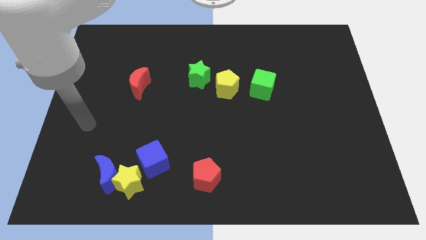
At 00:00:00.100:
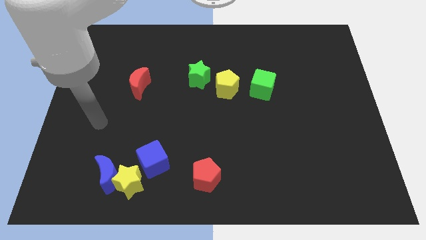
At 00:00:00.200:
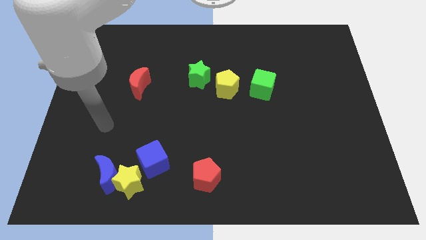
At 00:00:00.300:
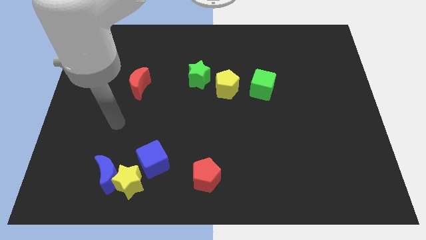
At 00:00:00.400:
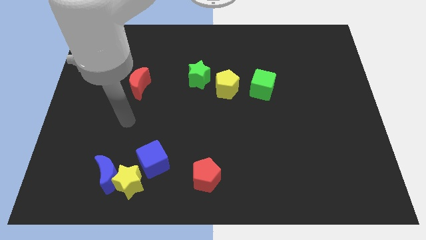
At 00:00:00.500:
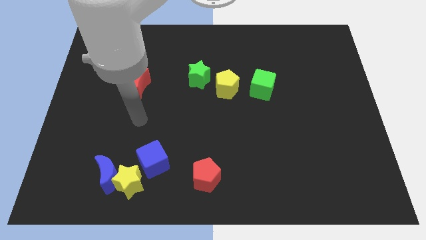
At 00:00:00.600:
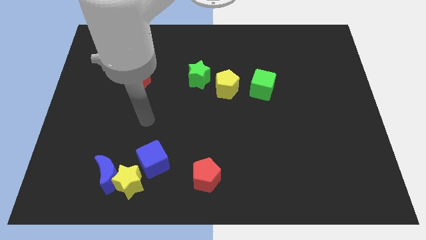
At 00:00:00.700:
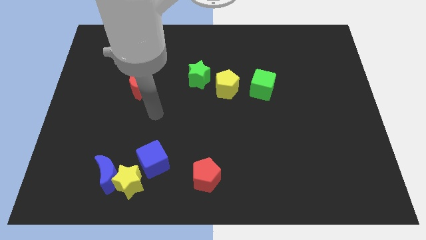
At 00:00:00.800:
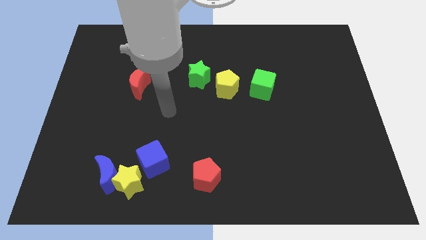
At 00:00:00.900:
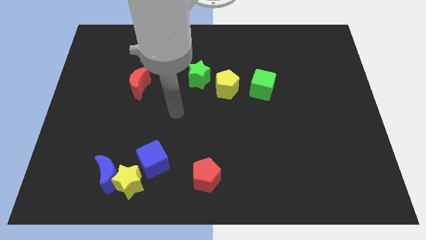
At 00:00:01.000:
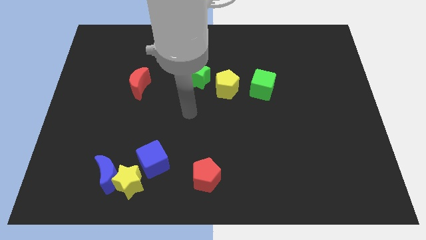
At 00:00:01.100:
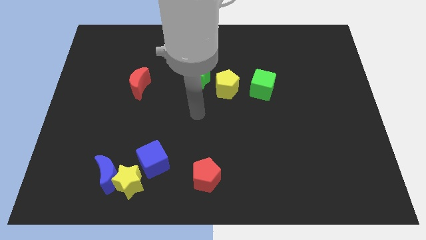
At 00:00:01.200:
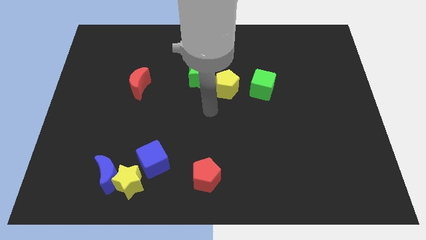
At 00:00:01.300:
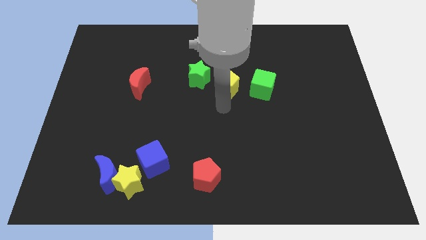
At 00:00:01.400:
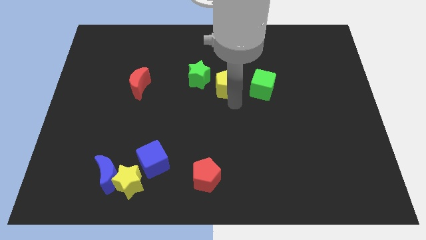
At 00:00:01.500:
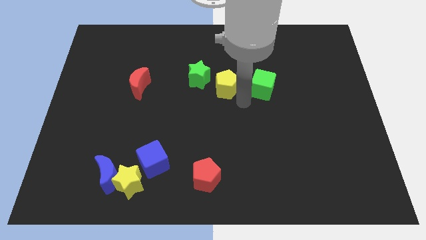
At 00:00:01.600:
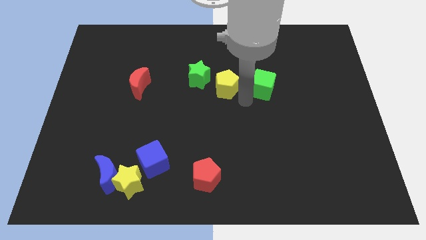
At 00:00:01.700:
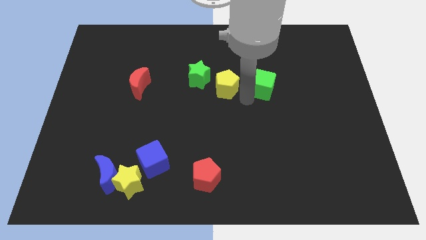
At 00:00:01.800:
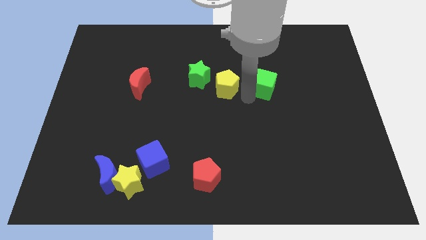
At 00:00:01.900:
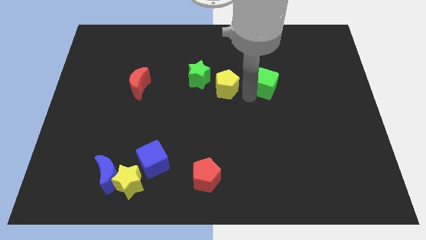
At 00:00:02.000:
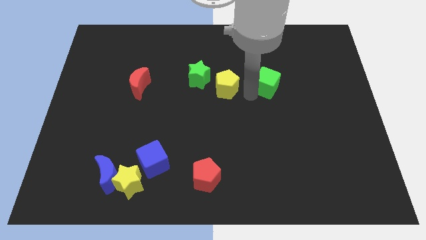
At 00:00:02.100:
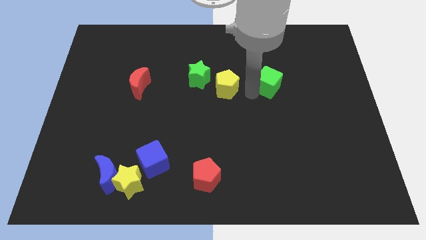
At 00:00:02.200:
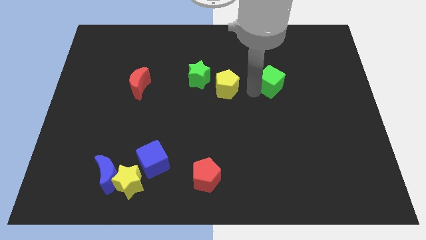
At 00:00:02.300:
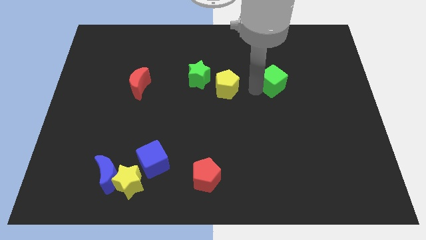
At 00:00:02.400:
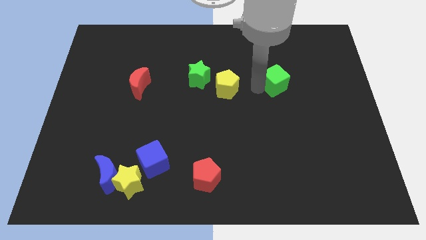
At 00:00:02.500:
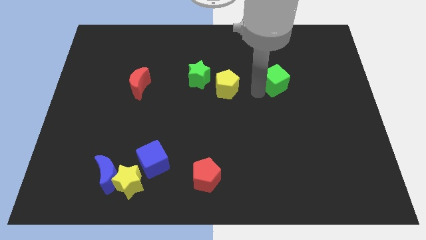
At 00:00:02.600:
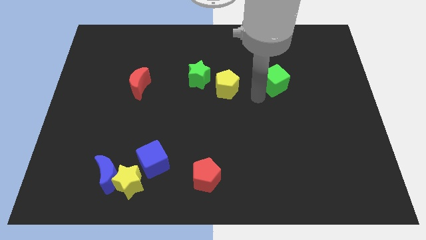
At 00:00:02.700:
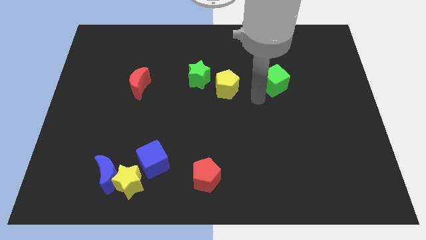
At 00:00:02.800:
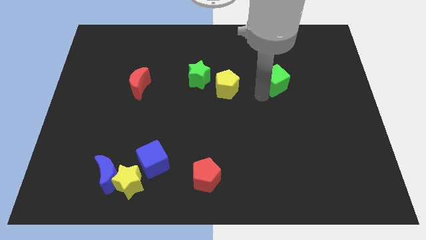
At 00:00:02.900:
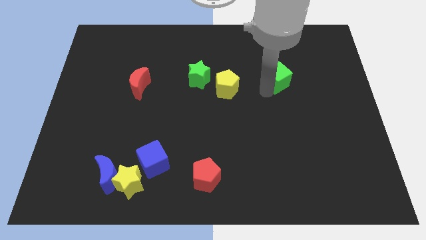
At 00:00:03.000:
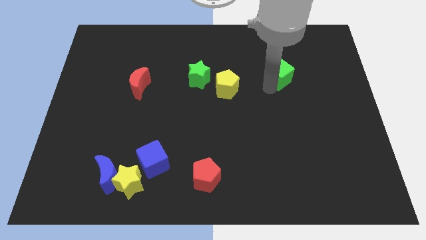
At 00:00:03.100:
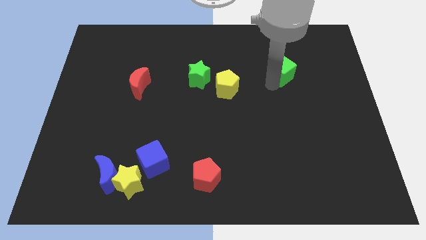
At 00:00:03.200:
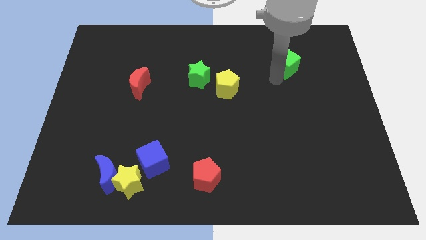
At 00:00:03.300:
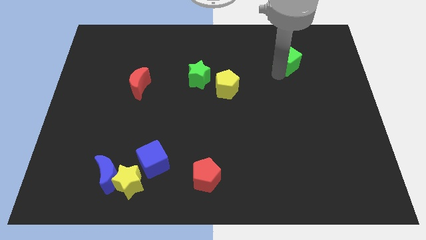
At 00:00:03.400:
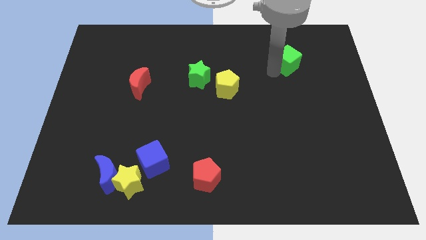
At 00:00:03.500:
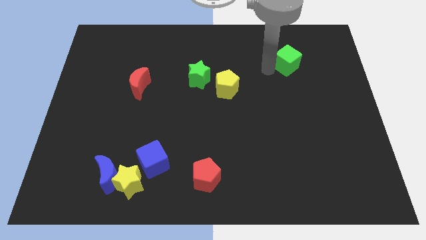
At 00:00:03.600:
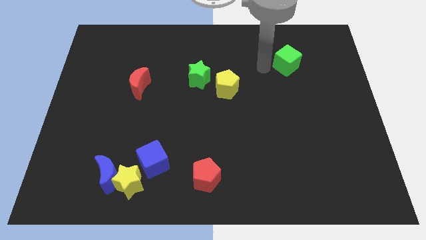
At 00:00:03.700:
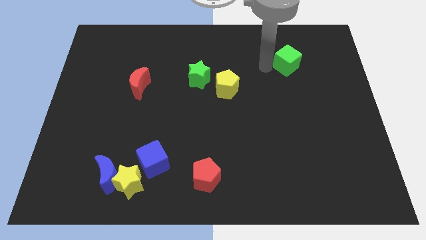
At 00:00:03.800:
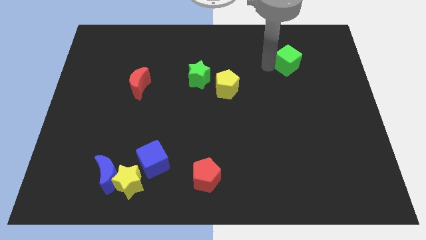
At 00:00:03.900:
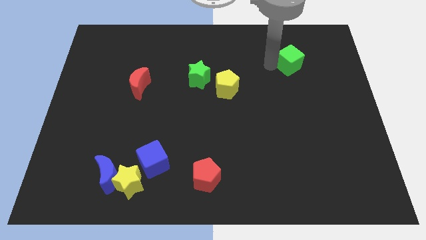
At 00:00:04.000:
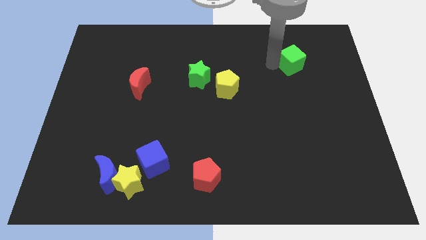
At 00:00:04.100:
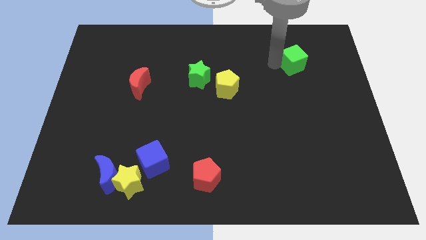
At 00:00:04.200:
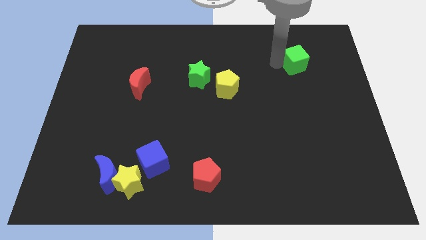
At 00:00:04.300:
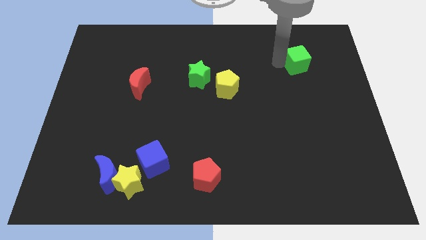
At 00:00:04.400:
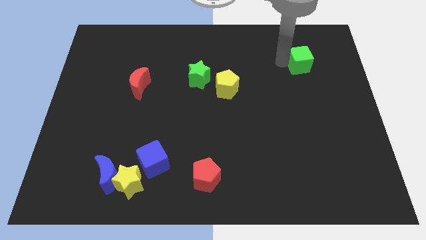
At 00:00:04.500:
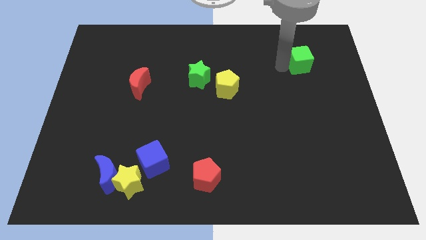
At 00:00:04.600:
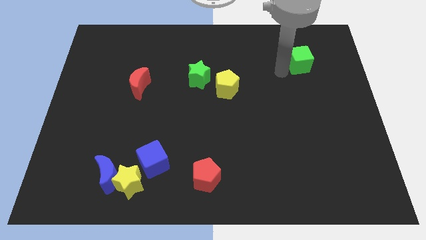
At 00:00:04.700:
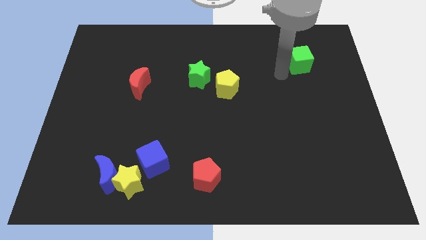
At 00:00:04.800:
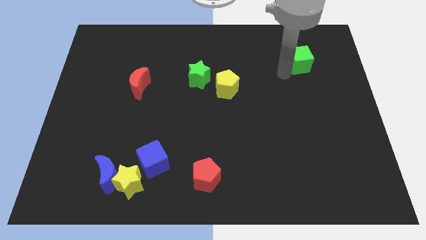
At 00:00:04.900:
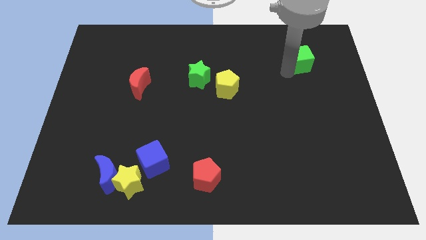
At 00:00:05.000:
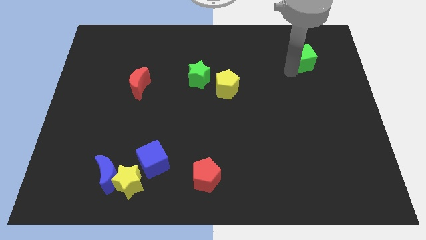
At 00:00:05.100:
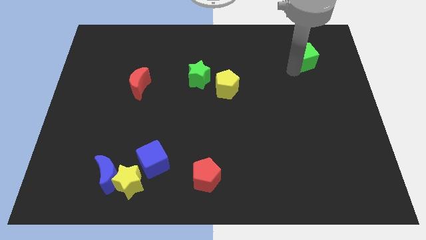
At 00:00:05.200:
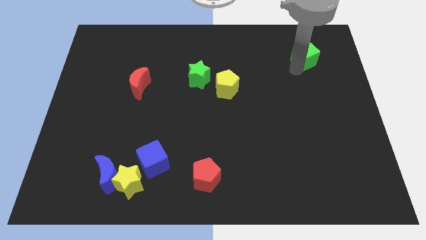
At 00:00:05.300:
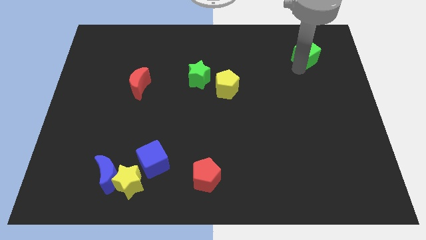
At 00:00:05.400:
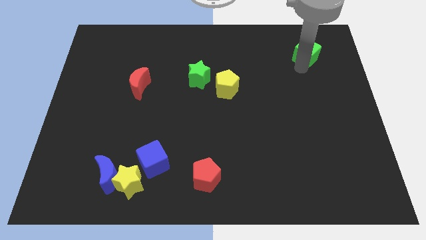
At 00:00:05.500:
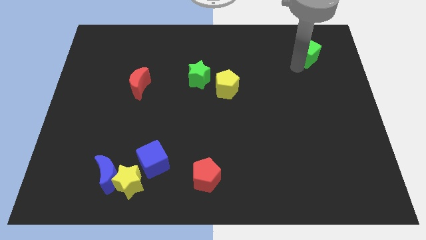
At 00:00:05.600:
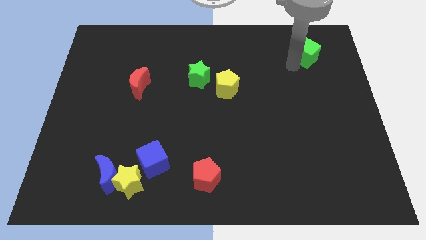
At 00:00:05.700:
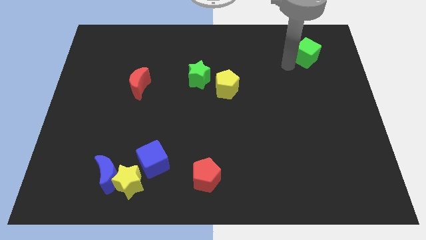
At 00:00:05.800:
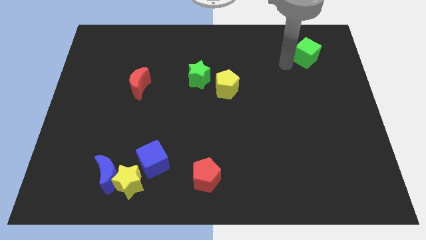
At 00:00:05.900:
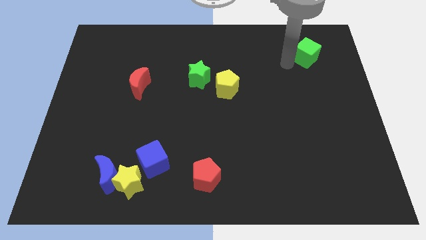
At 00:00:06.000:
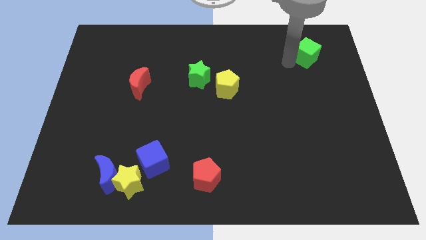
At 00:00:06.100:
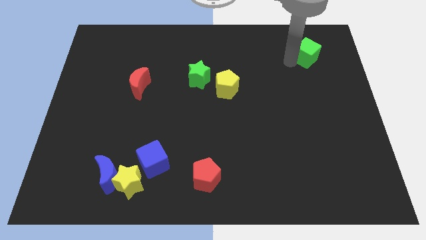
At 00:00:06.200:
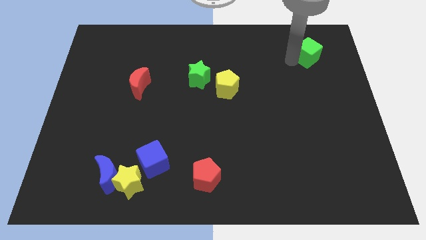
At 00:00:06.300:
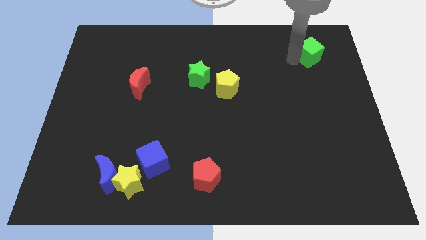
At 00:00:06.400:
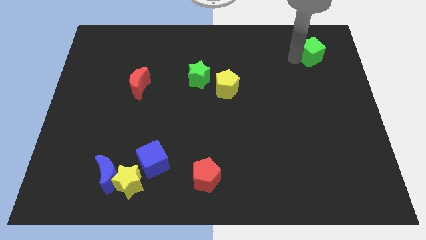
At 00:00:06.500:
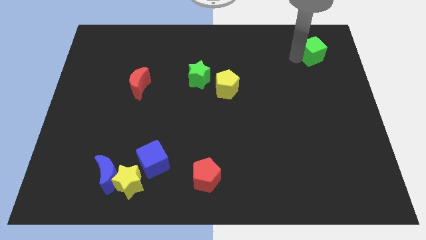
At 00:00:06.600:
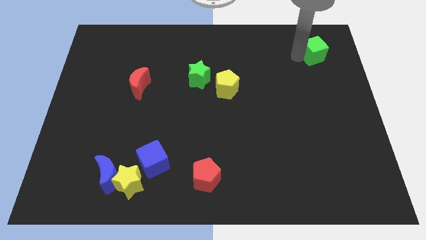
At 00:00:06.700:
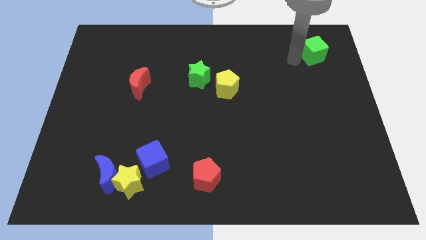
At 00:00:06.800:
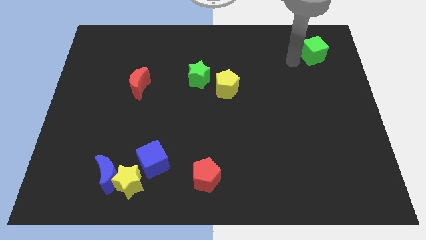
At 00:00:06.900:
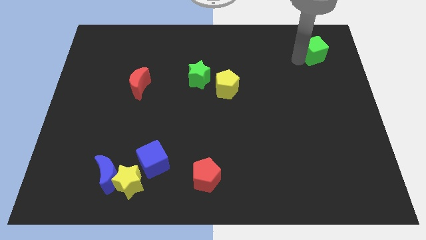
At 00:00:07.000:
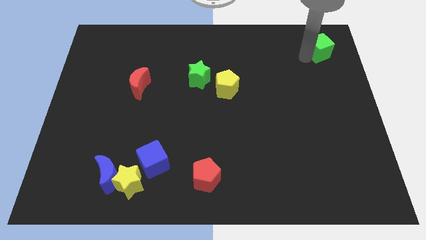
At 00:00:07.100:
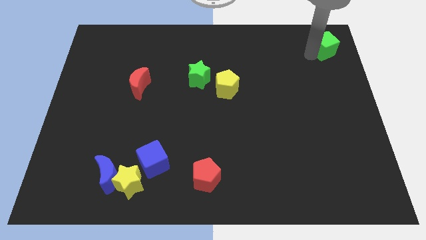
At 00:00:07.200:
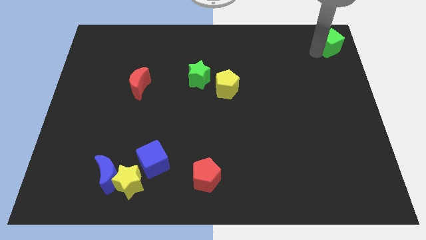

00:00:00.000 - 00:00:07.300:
move the green cube to the top right
